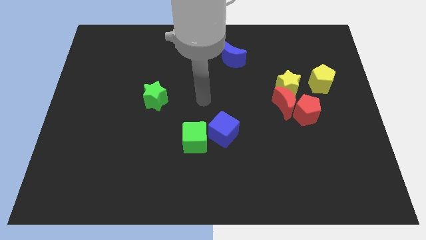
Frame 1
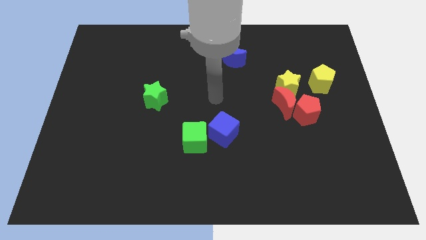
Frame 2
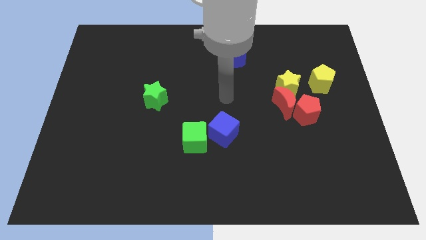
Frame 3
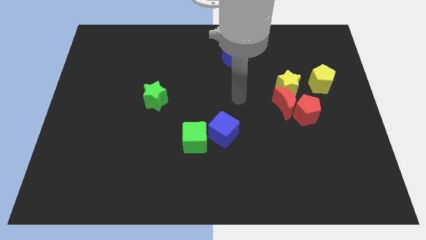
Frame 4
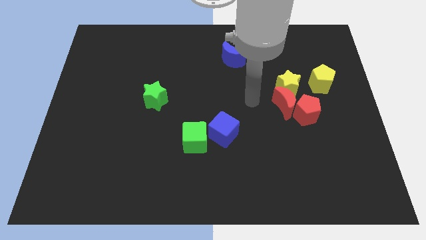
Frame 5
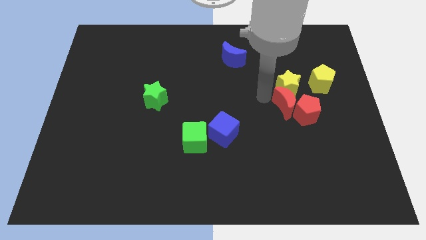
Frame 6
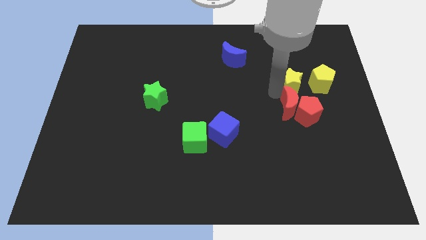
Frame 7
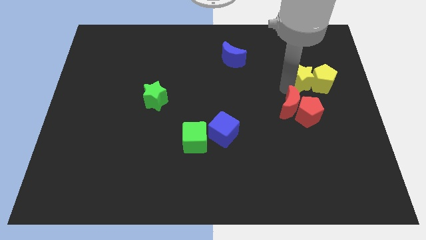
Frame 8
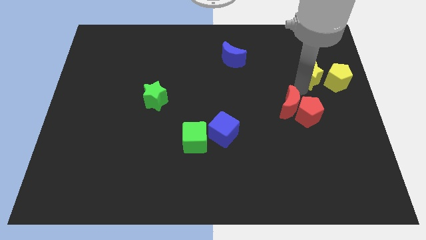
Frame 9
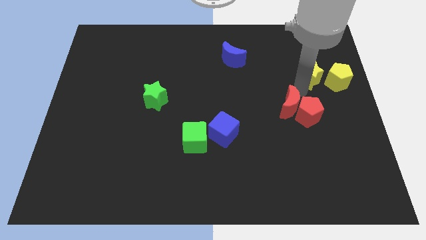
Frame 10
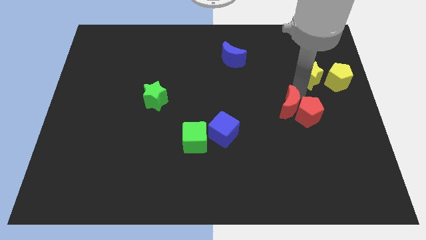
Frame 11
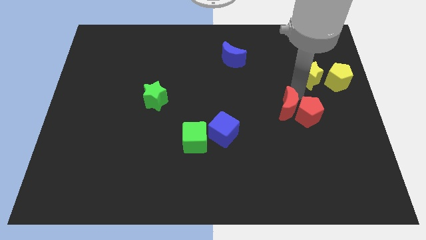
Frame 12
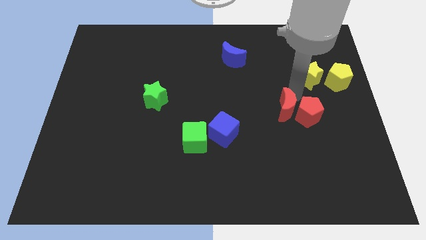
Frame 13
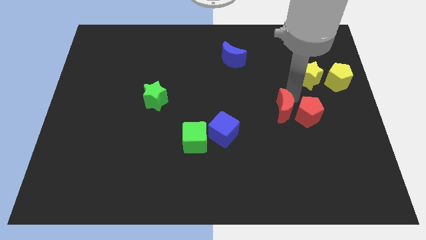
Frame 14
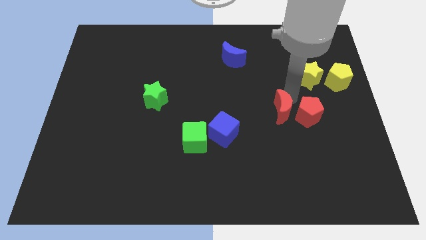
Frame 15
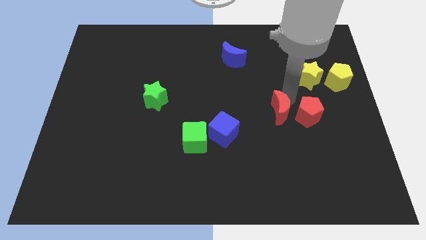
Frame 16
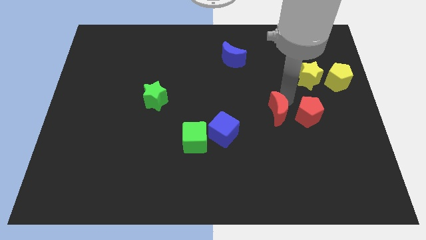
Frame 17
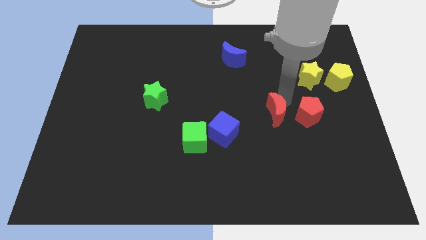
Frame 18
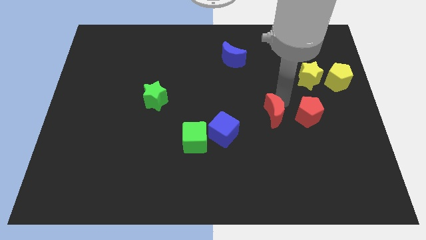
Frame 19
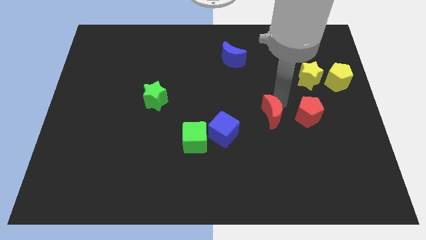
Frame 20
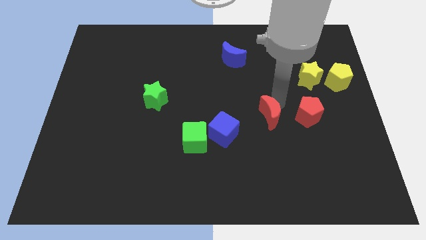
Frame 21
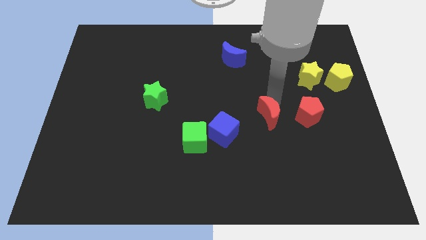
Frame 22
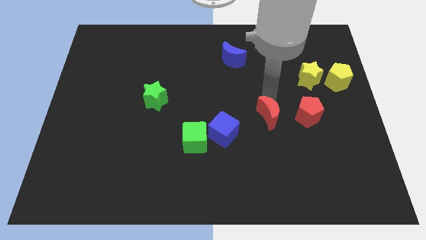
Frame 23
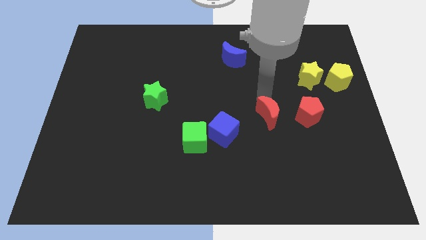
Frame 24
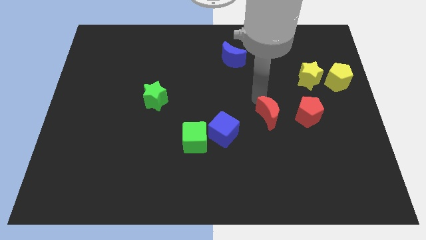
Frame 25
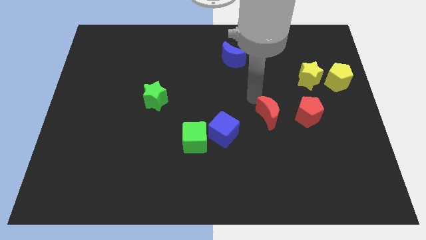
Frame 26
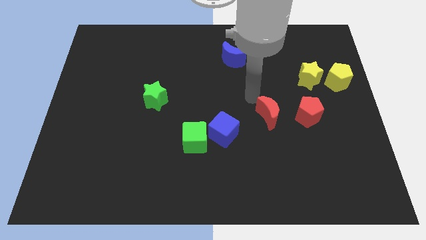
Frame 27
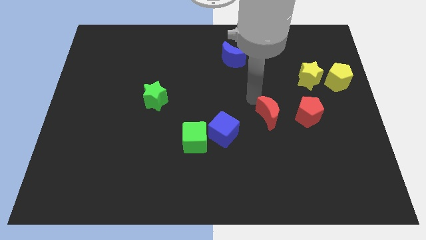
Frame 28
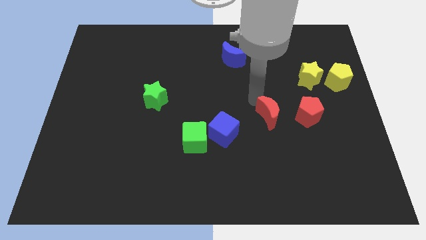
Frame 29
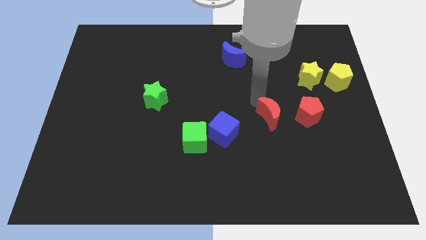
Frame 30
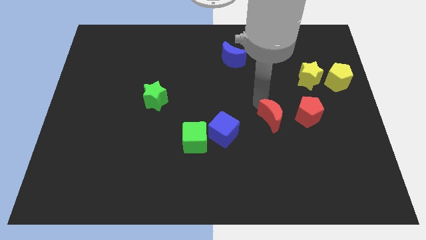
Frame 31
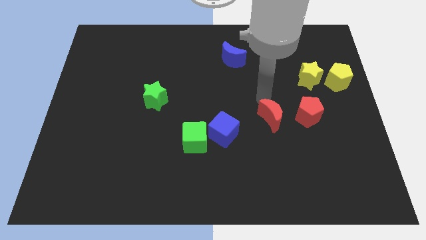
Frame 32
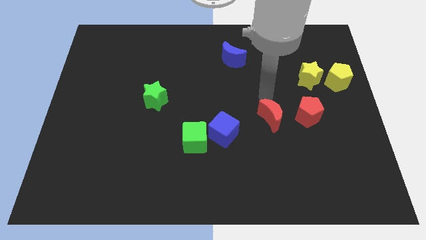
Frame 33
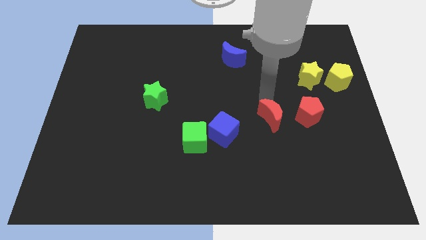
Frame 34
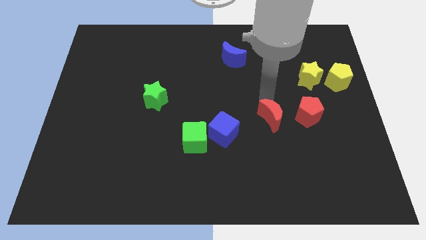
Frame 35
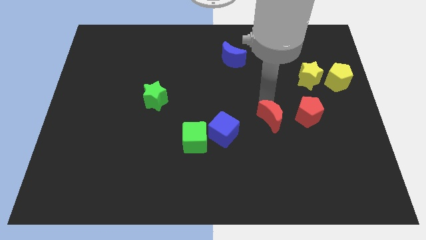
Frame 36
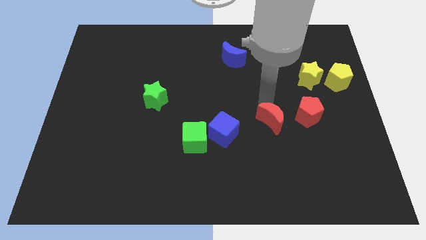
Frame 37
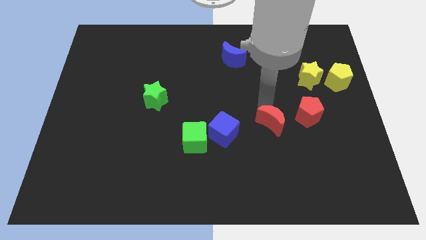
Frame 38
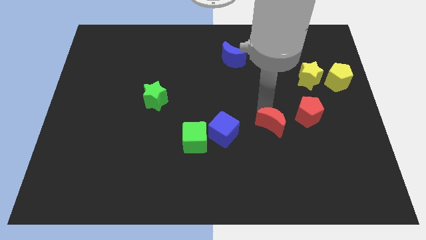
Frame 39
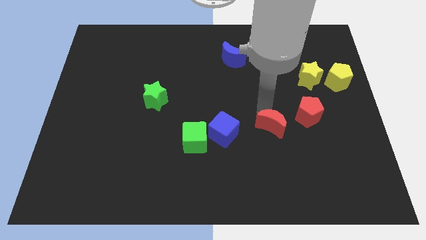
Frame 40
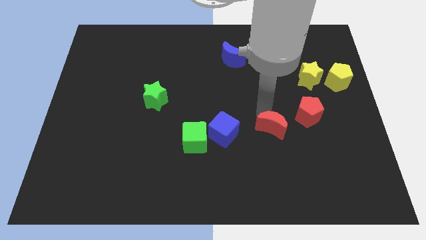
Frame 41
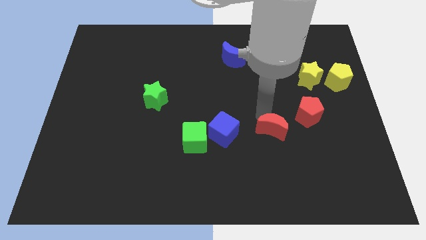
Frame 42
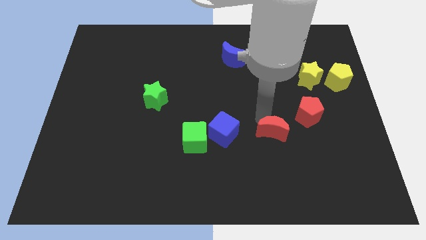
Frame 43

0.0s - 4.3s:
slightly slide the red moon down

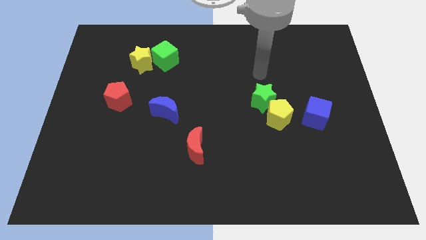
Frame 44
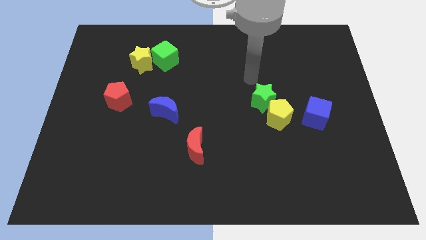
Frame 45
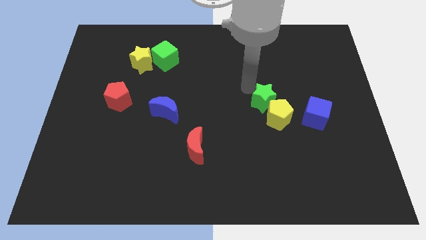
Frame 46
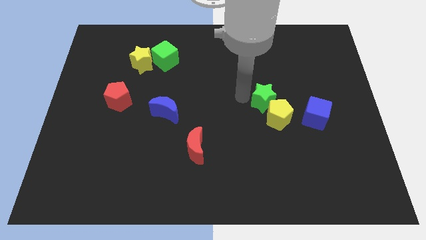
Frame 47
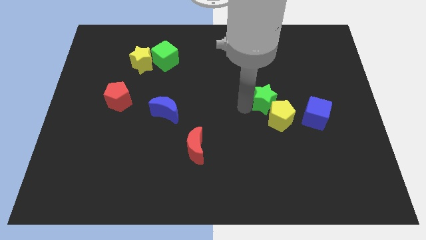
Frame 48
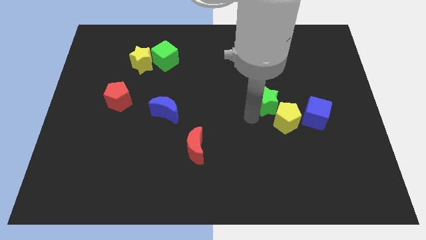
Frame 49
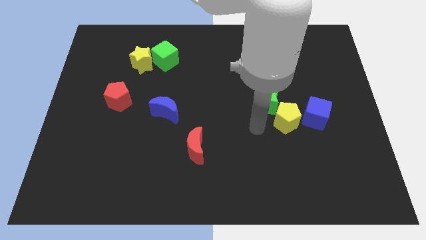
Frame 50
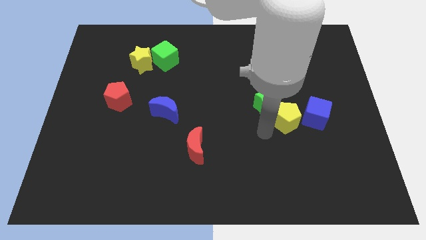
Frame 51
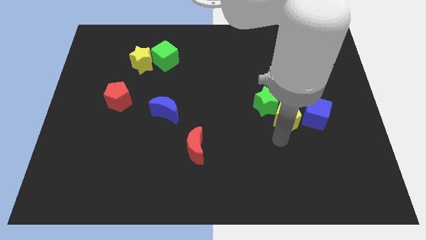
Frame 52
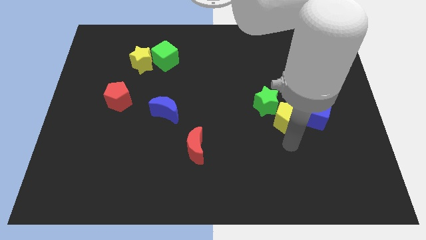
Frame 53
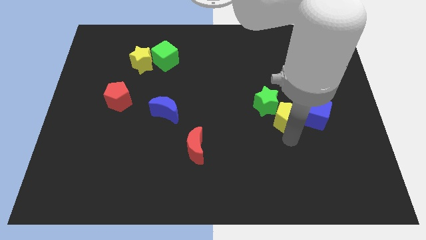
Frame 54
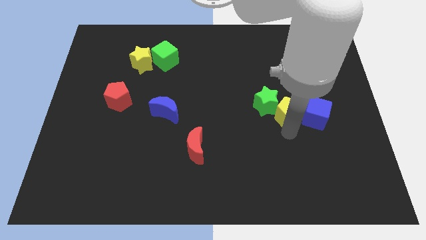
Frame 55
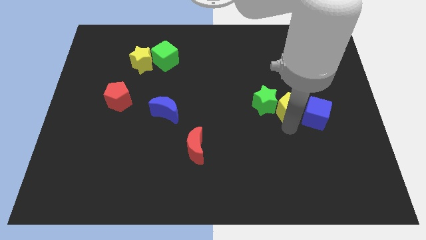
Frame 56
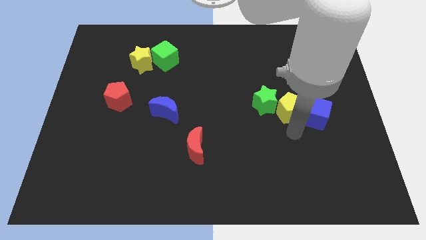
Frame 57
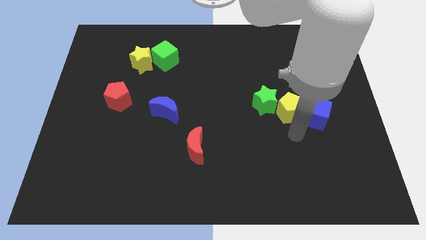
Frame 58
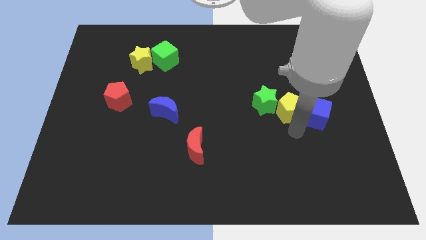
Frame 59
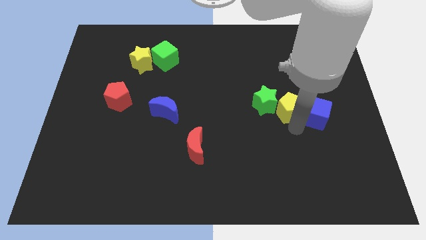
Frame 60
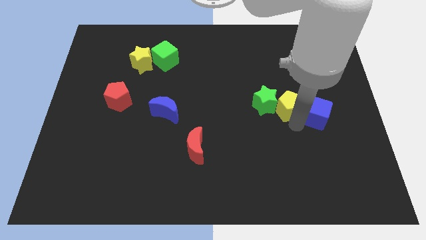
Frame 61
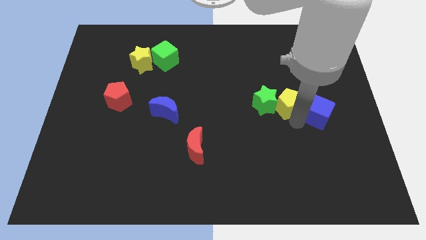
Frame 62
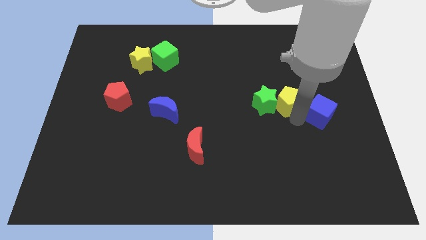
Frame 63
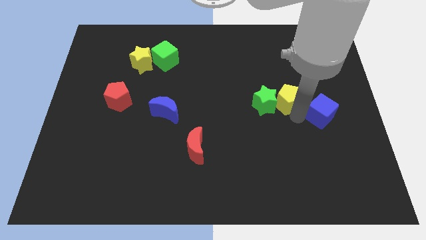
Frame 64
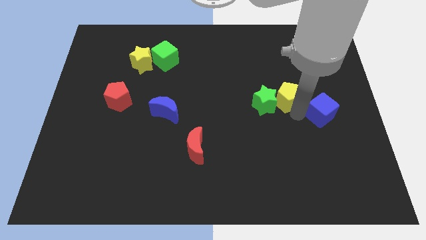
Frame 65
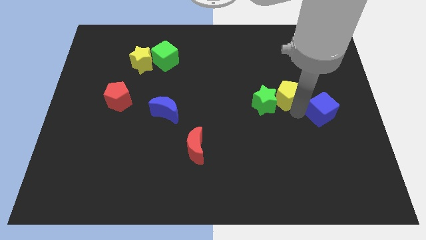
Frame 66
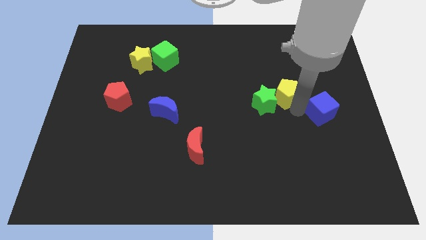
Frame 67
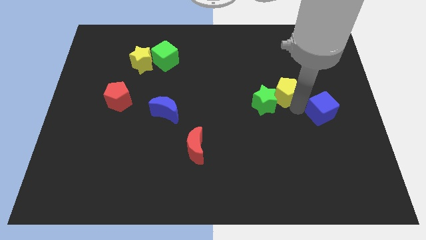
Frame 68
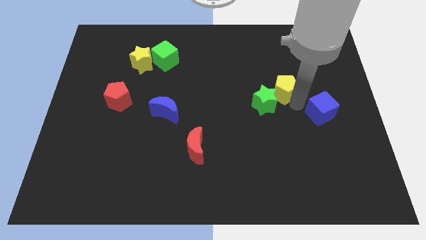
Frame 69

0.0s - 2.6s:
move the yellow pentagon upwards a little

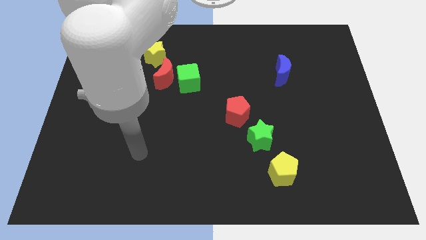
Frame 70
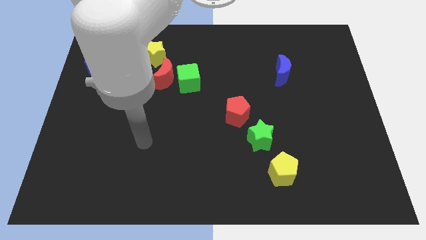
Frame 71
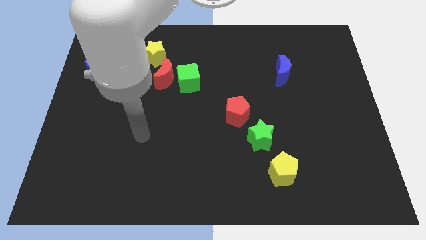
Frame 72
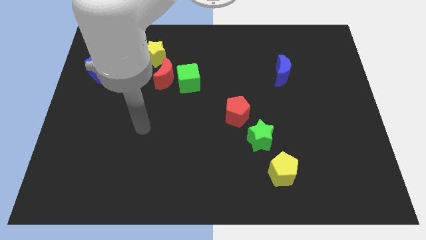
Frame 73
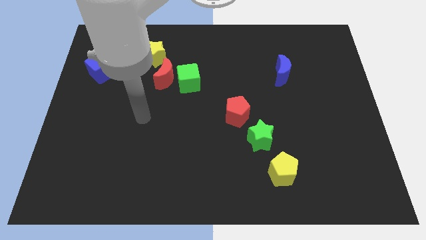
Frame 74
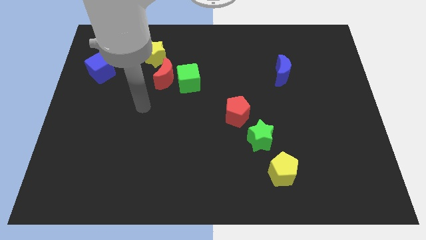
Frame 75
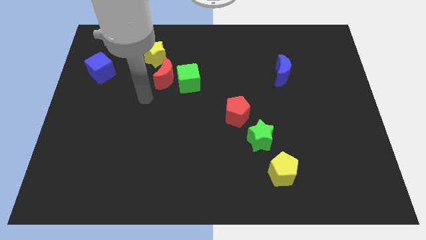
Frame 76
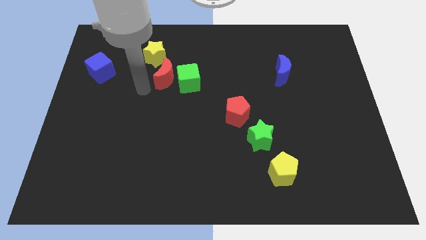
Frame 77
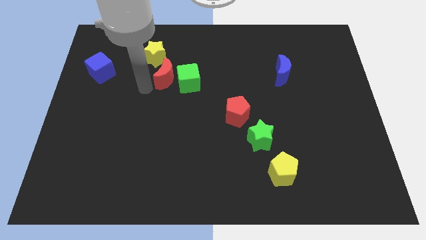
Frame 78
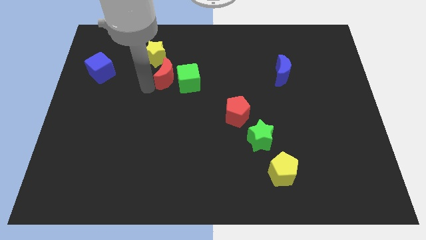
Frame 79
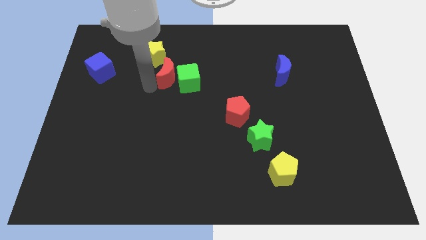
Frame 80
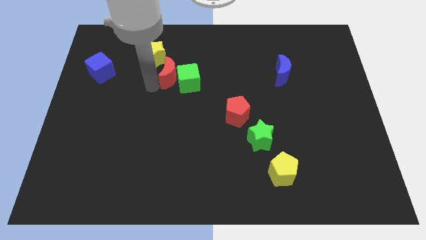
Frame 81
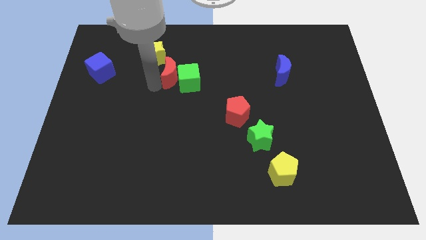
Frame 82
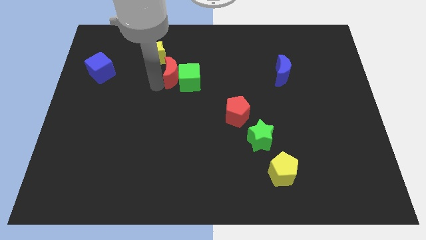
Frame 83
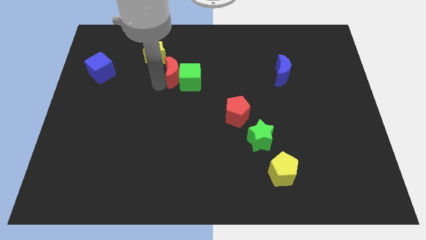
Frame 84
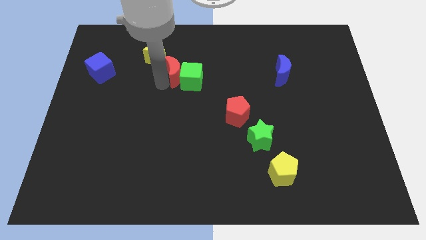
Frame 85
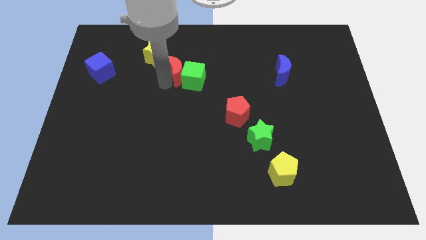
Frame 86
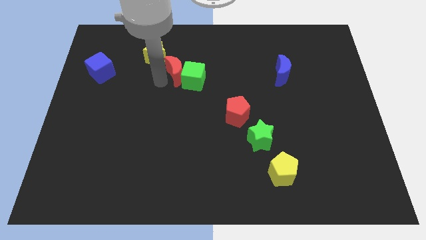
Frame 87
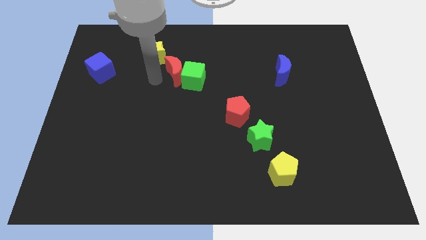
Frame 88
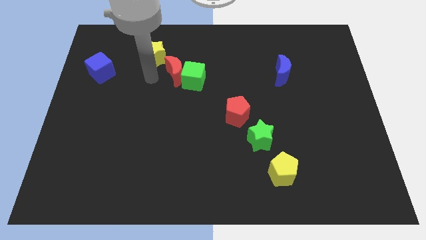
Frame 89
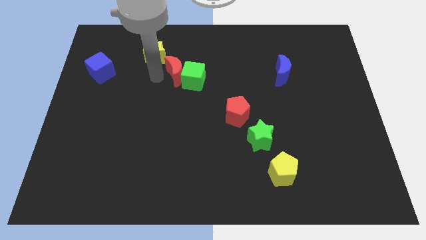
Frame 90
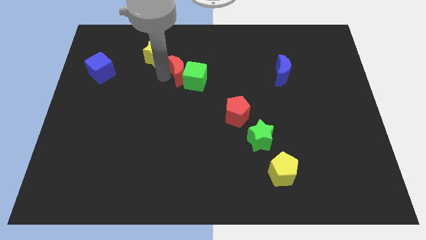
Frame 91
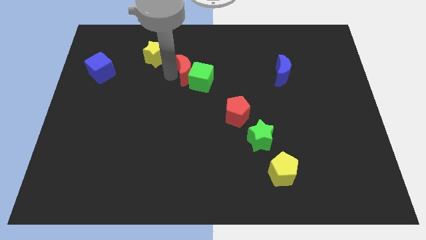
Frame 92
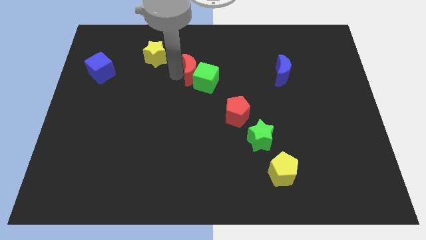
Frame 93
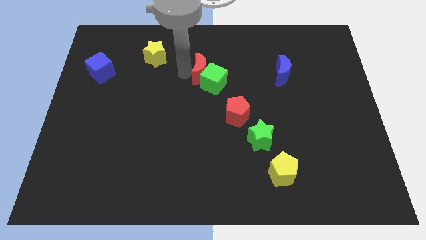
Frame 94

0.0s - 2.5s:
push the red moon to the right slightly
